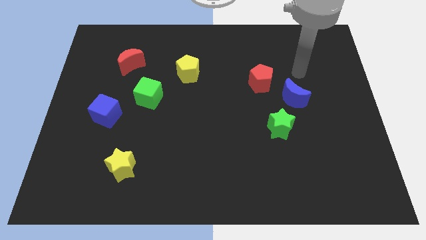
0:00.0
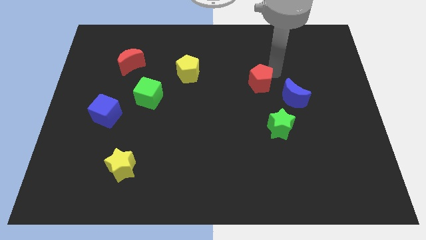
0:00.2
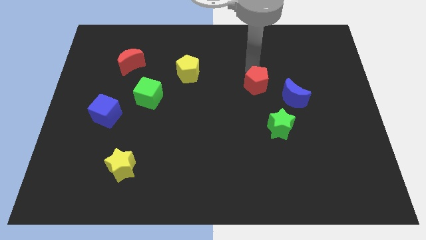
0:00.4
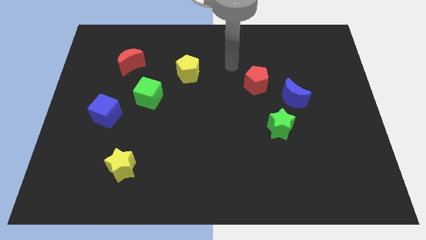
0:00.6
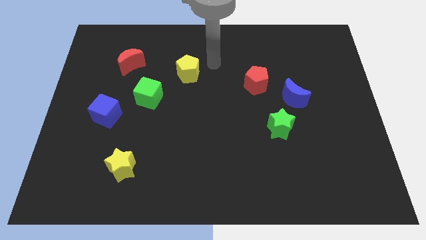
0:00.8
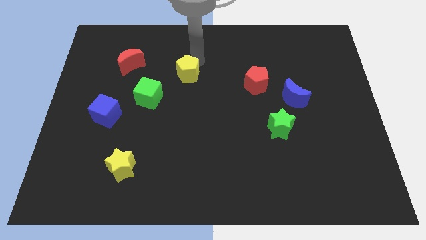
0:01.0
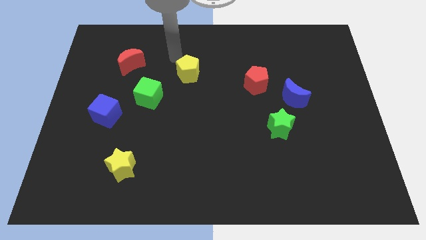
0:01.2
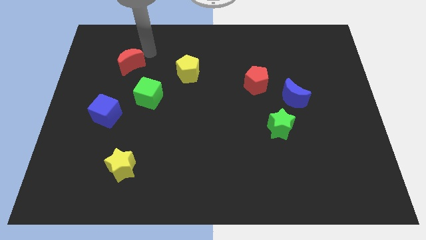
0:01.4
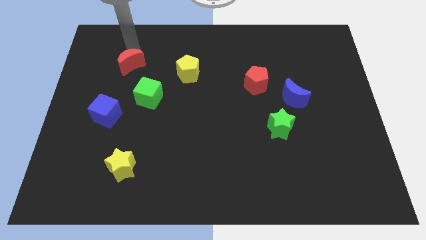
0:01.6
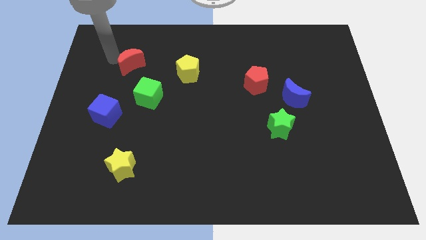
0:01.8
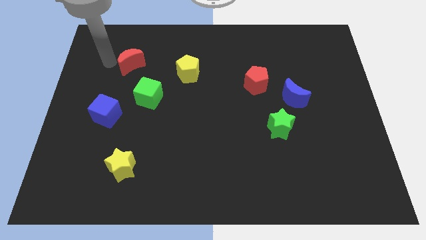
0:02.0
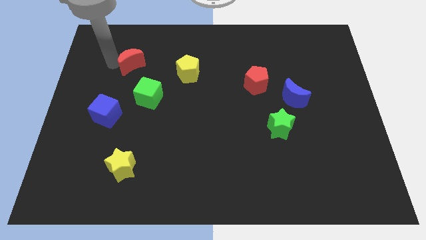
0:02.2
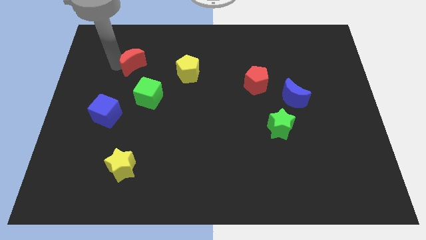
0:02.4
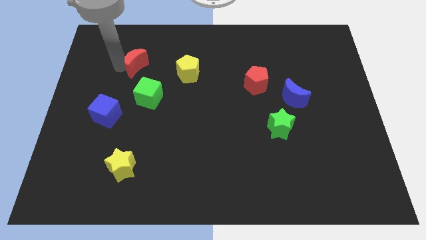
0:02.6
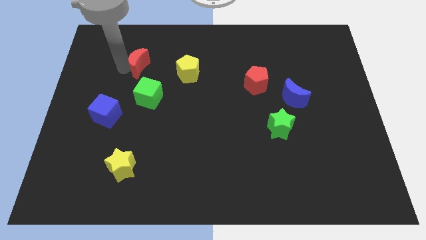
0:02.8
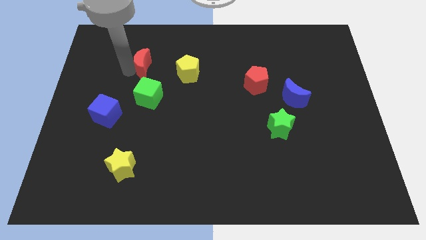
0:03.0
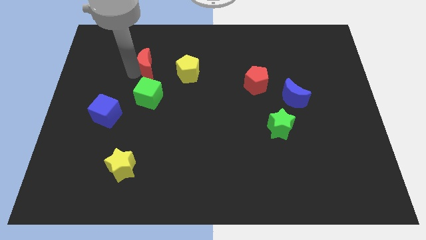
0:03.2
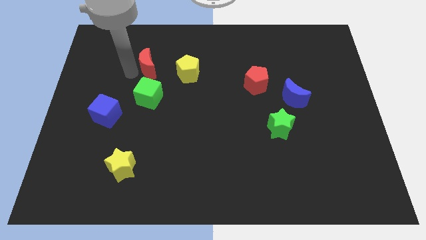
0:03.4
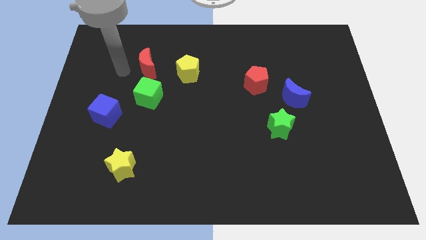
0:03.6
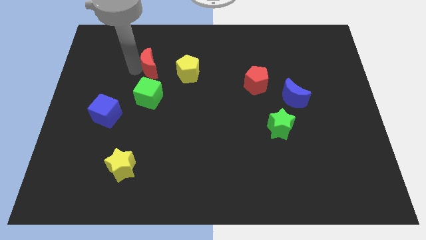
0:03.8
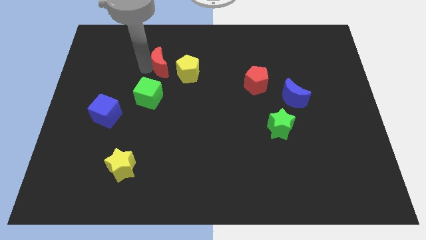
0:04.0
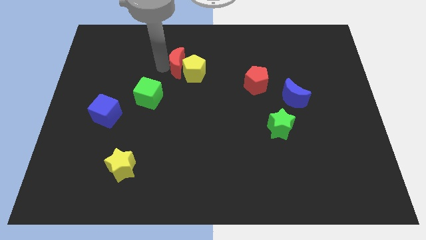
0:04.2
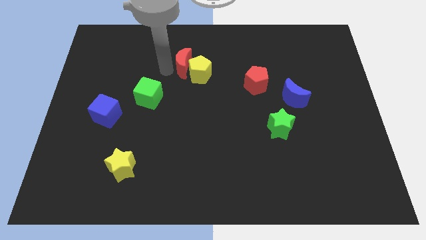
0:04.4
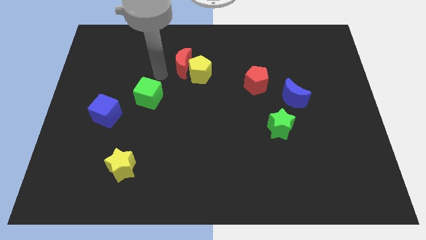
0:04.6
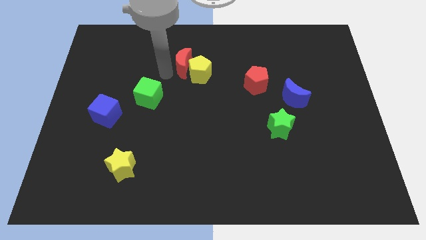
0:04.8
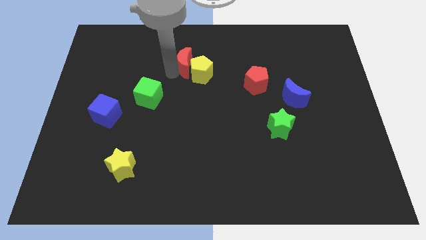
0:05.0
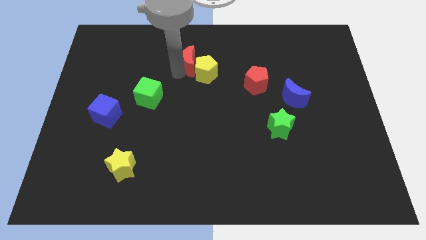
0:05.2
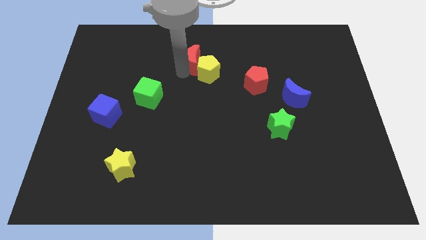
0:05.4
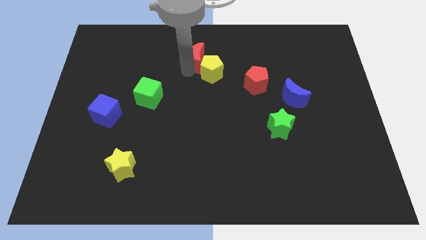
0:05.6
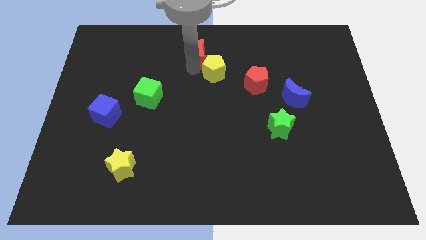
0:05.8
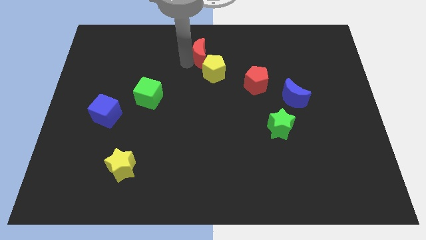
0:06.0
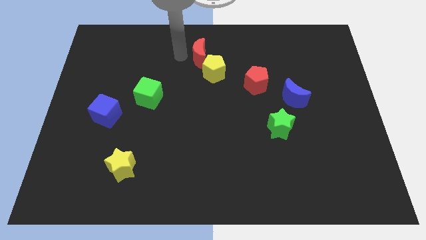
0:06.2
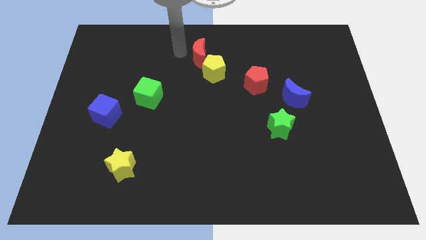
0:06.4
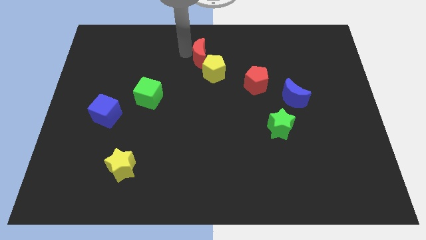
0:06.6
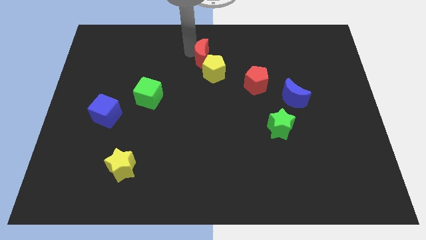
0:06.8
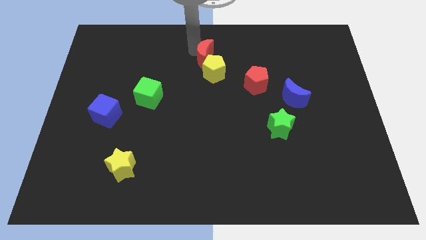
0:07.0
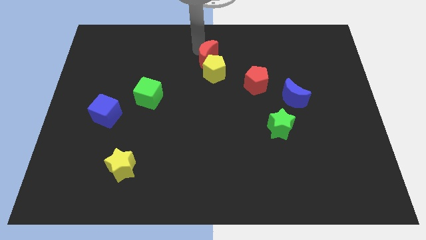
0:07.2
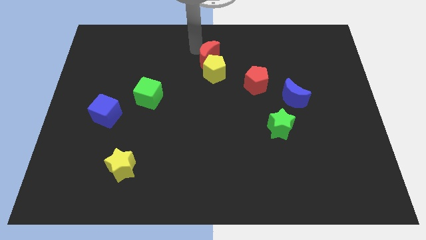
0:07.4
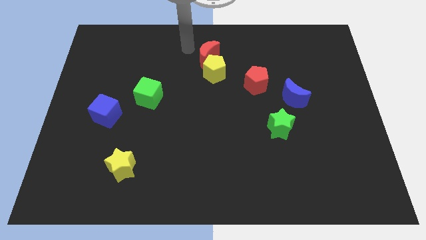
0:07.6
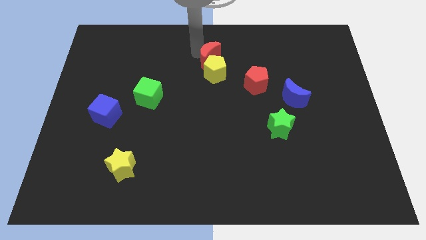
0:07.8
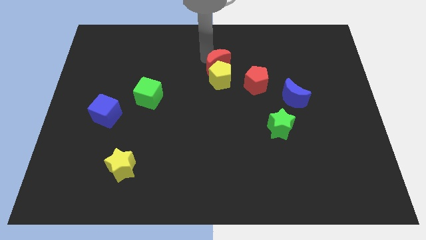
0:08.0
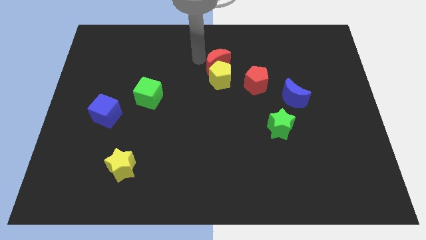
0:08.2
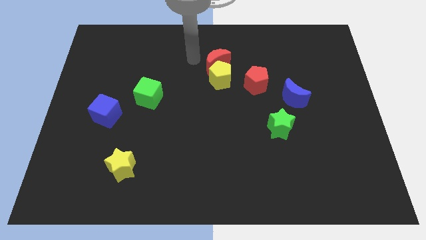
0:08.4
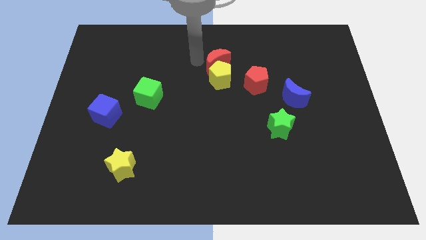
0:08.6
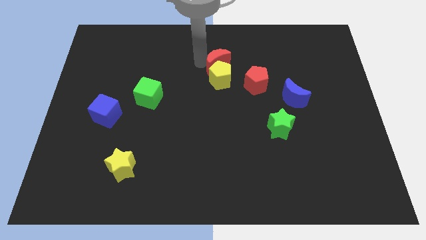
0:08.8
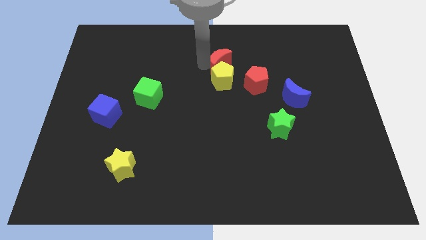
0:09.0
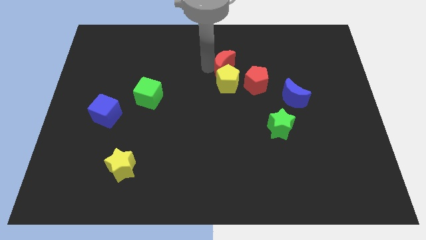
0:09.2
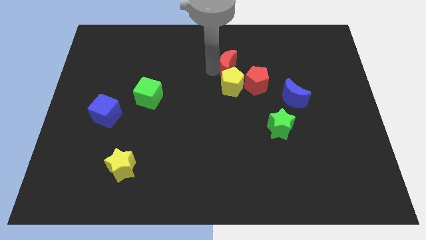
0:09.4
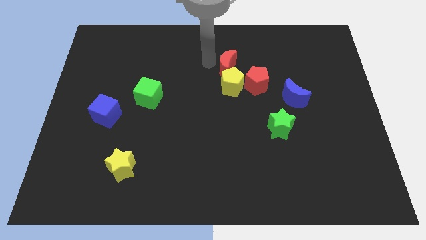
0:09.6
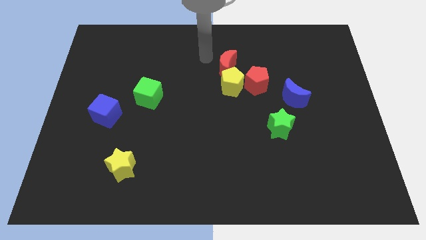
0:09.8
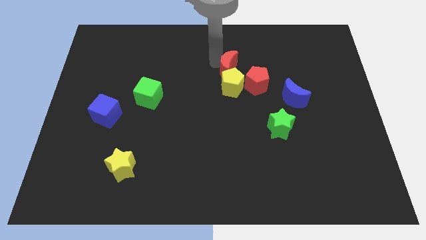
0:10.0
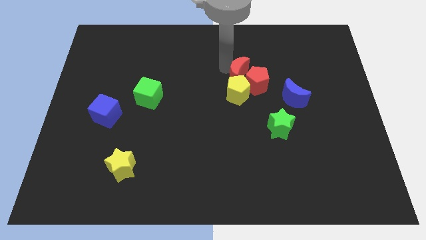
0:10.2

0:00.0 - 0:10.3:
move the red moon close to the red pentagon

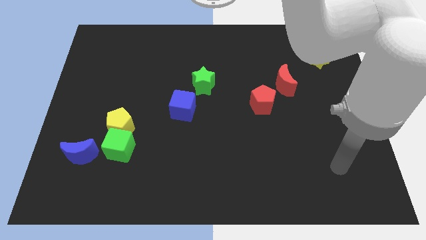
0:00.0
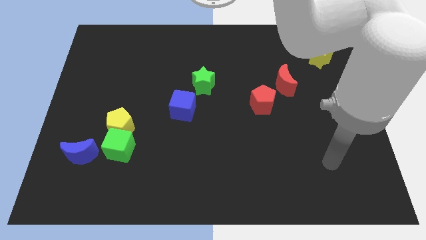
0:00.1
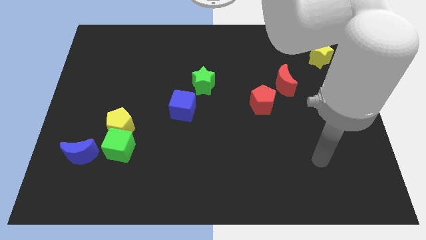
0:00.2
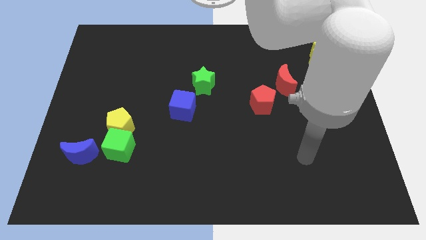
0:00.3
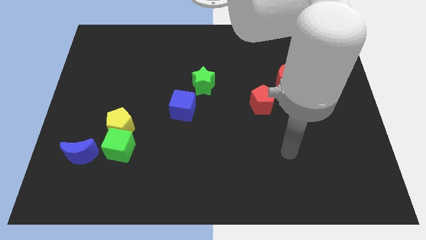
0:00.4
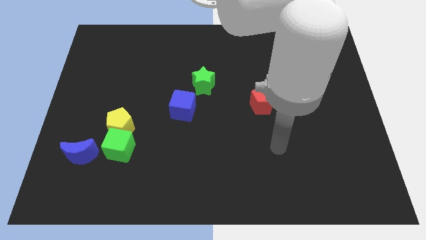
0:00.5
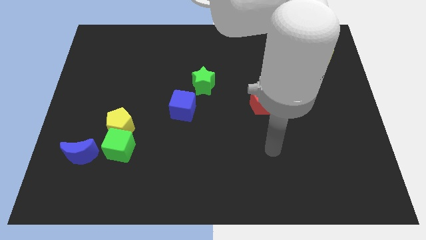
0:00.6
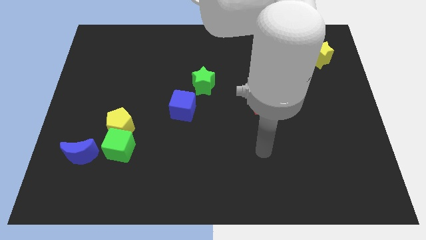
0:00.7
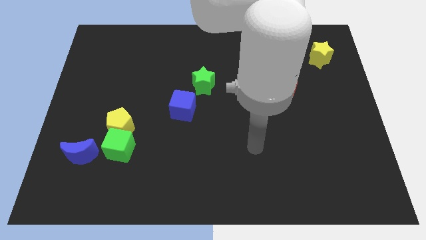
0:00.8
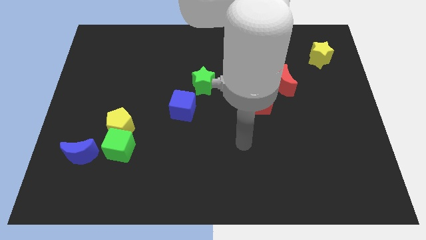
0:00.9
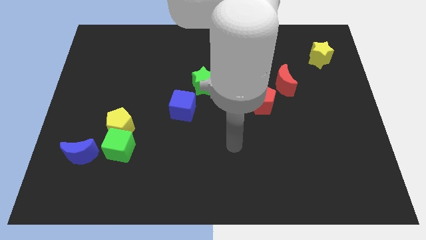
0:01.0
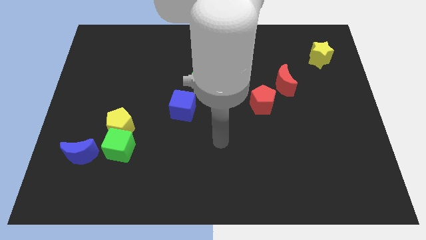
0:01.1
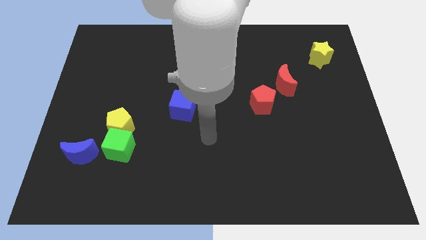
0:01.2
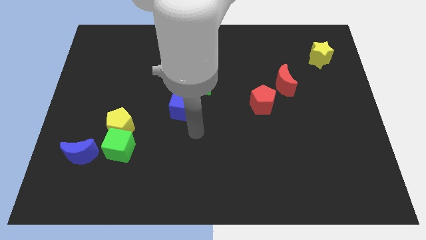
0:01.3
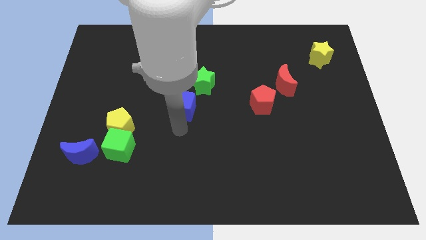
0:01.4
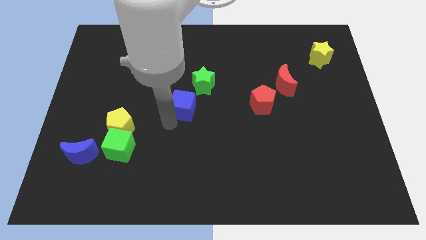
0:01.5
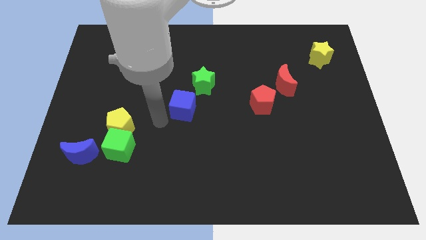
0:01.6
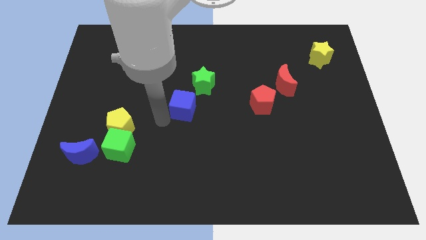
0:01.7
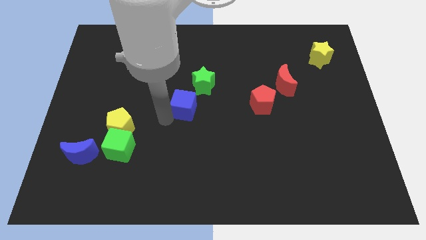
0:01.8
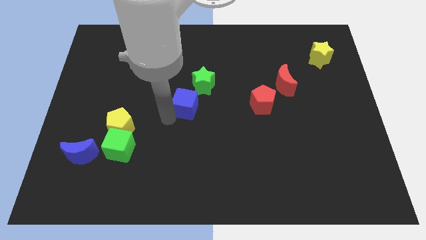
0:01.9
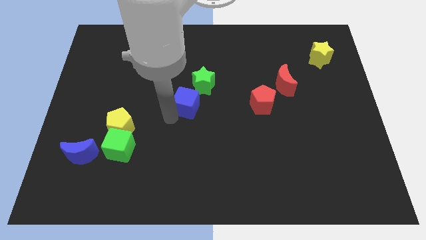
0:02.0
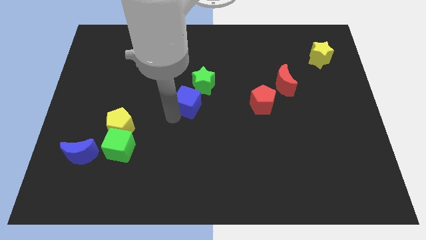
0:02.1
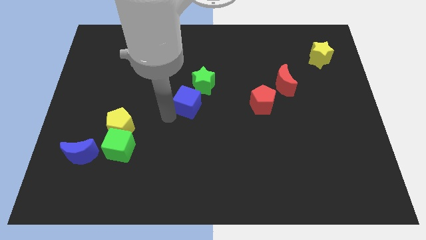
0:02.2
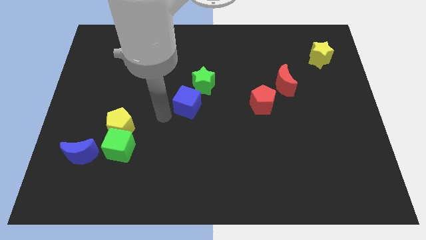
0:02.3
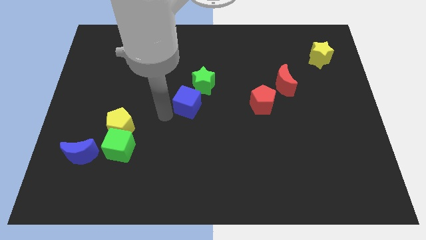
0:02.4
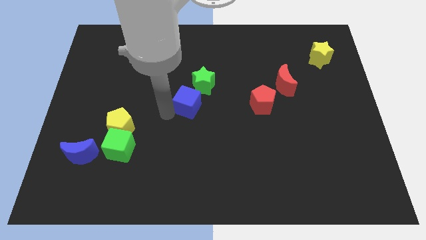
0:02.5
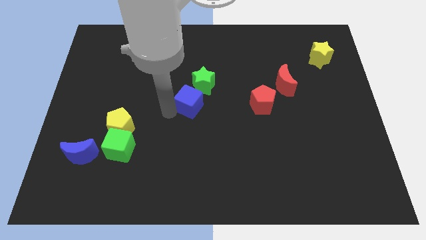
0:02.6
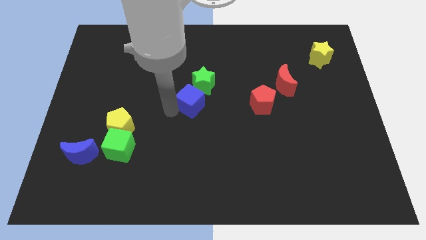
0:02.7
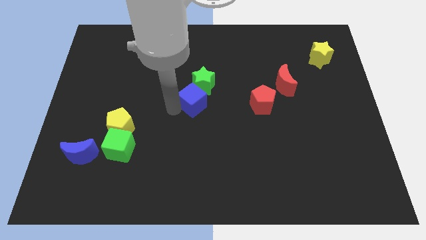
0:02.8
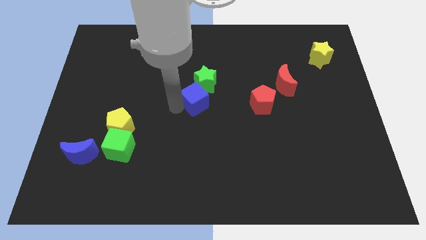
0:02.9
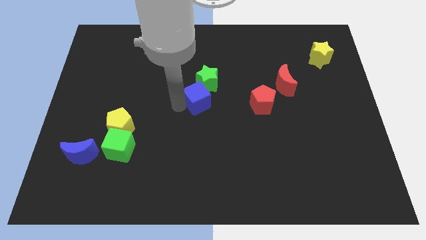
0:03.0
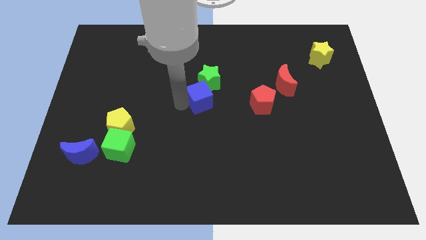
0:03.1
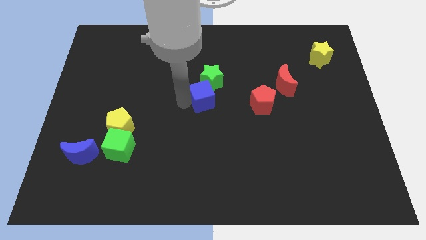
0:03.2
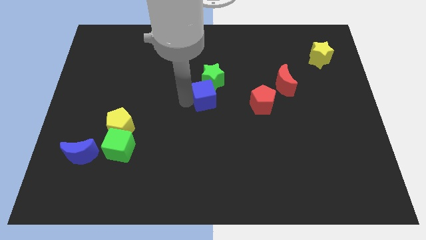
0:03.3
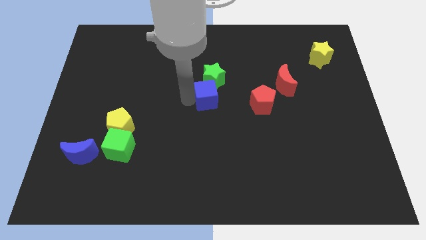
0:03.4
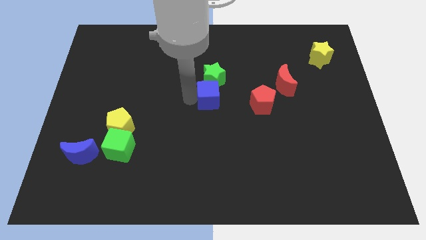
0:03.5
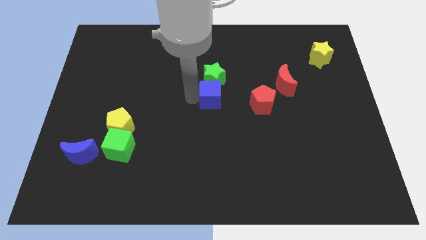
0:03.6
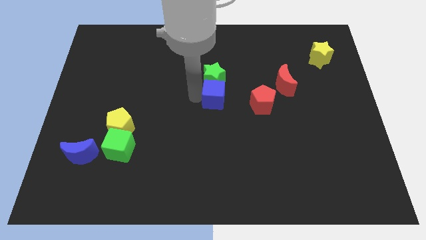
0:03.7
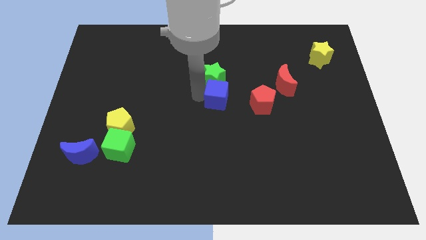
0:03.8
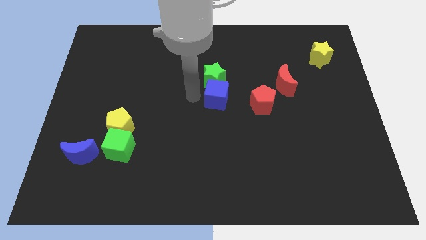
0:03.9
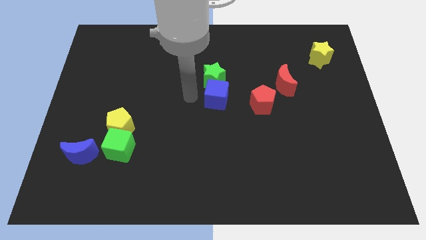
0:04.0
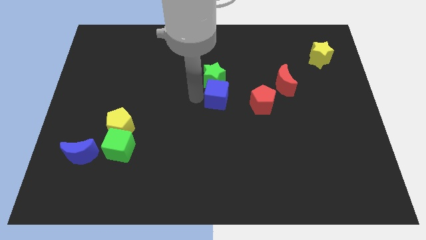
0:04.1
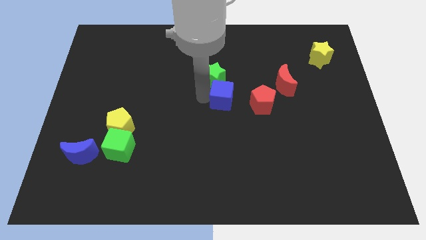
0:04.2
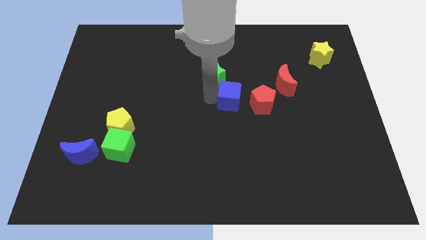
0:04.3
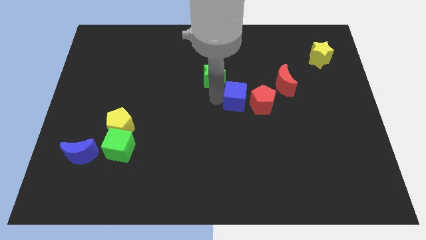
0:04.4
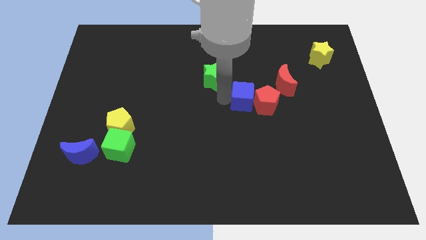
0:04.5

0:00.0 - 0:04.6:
put the blue cube next to the red pentagon
